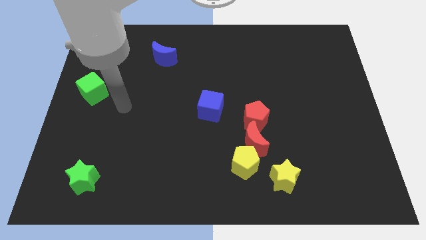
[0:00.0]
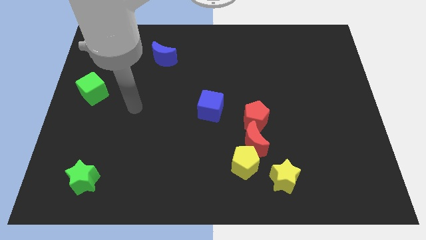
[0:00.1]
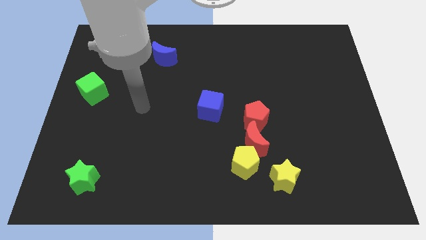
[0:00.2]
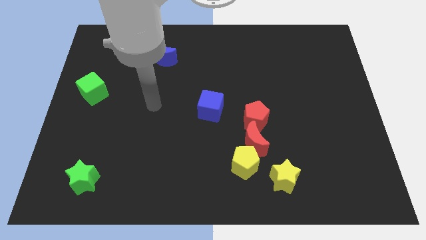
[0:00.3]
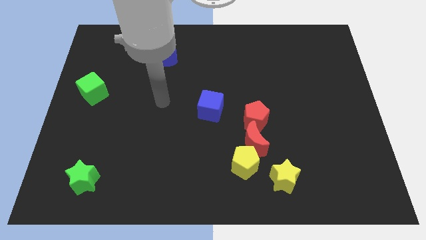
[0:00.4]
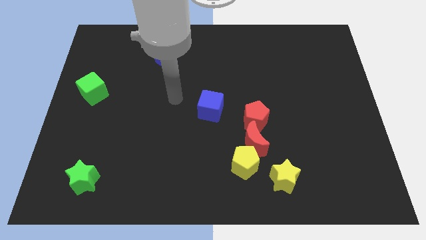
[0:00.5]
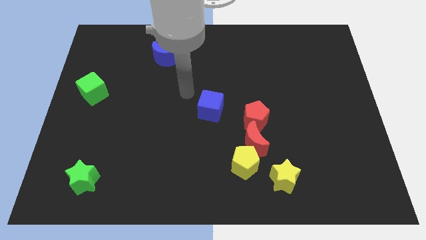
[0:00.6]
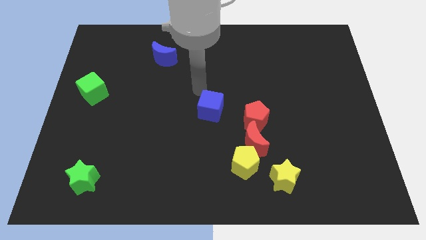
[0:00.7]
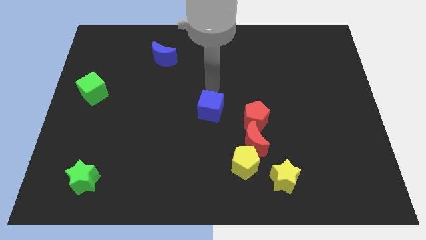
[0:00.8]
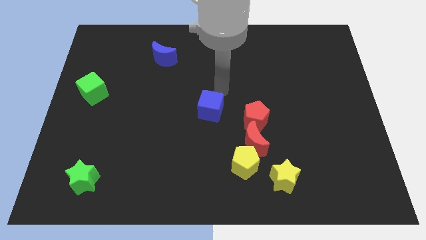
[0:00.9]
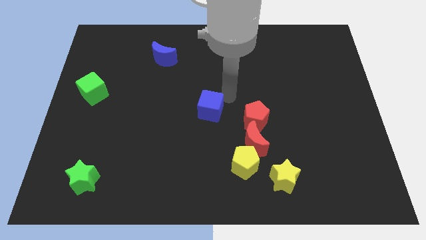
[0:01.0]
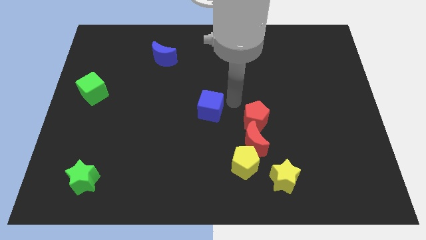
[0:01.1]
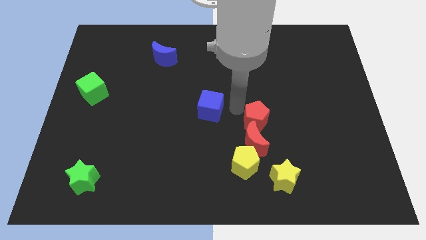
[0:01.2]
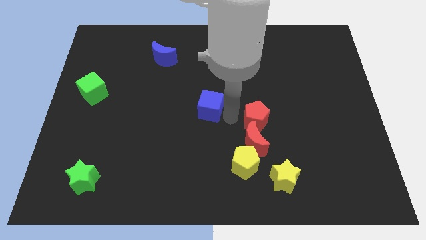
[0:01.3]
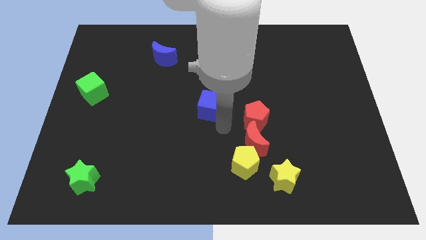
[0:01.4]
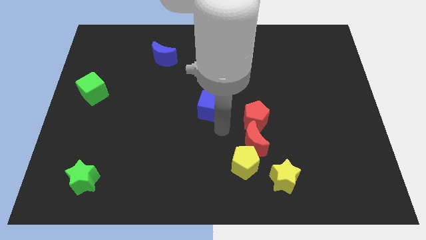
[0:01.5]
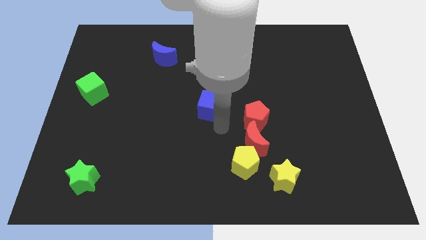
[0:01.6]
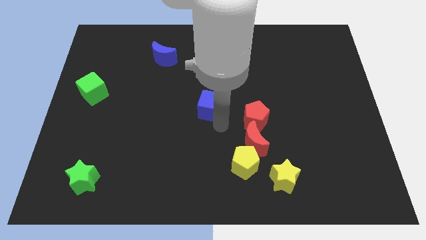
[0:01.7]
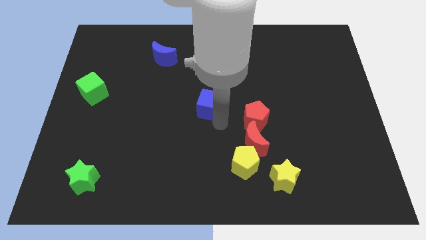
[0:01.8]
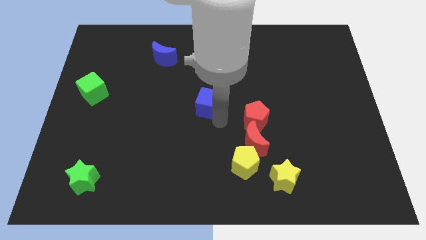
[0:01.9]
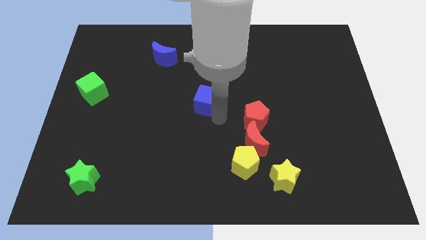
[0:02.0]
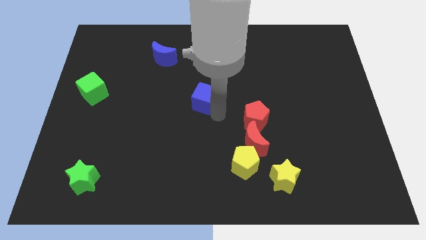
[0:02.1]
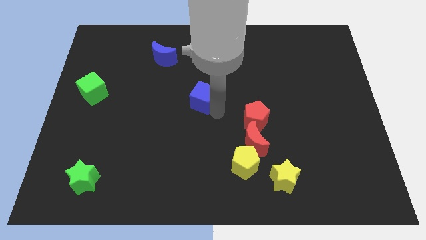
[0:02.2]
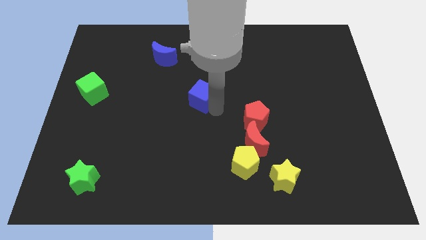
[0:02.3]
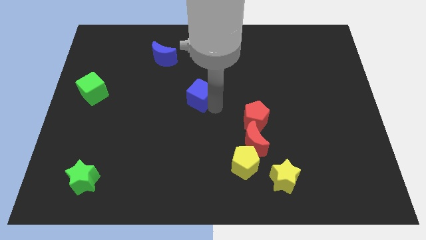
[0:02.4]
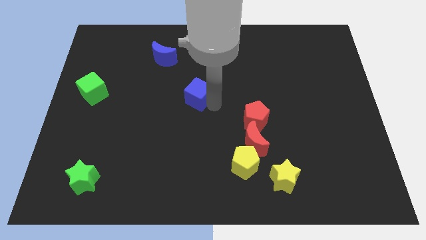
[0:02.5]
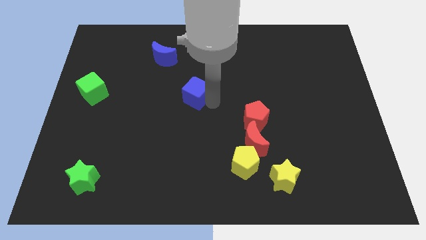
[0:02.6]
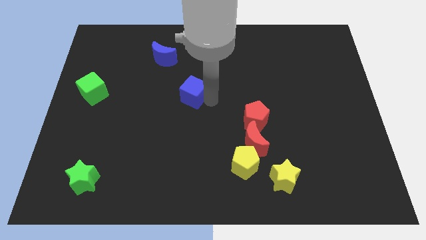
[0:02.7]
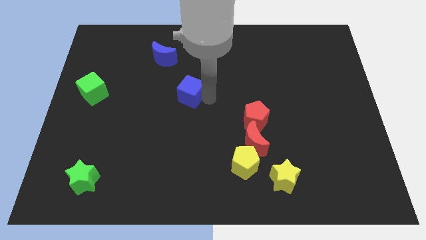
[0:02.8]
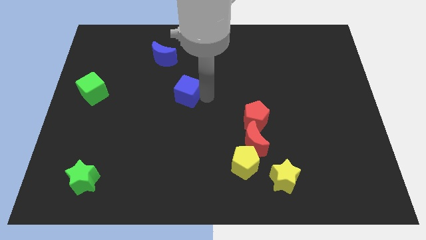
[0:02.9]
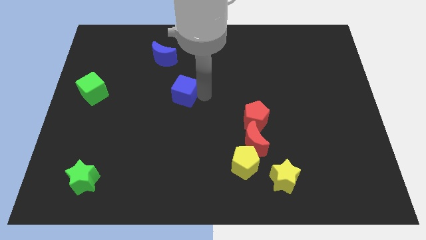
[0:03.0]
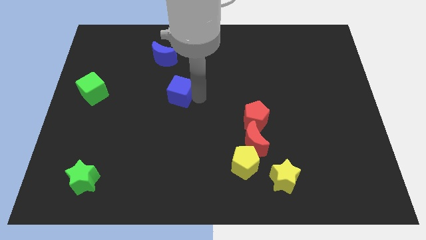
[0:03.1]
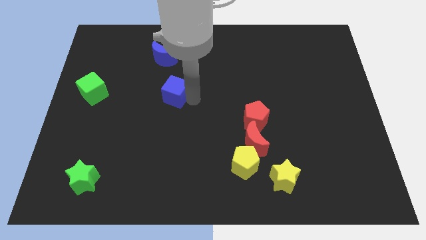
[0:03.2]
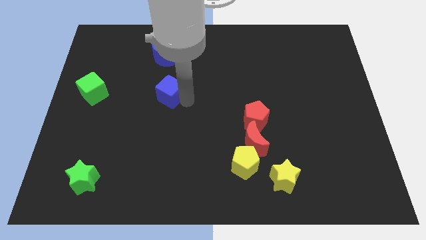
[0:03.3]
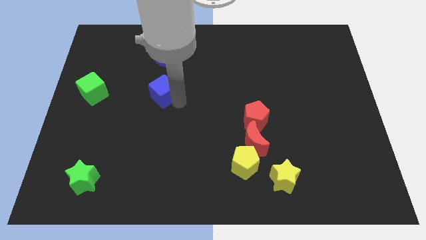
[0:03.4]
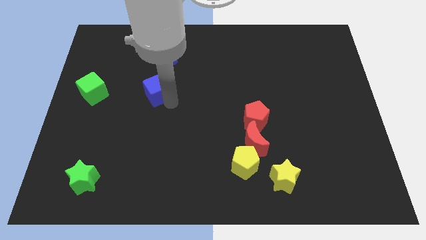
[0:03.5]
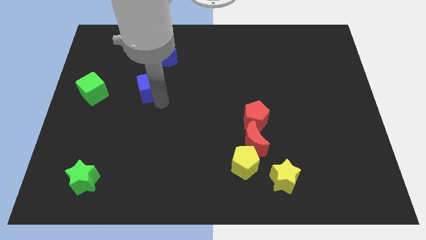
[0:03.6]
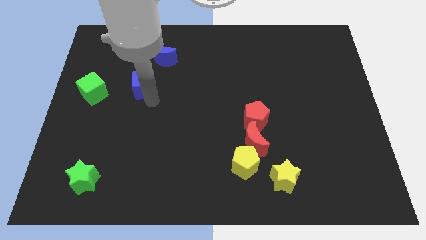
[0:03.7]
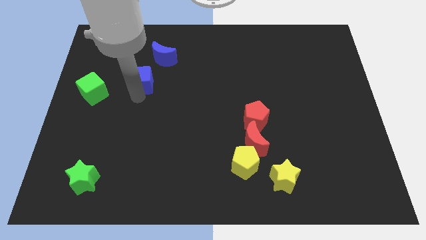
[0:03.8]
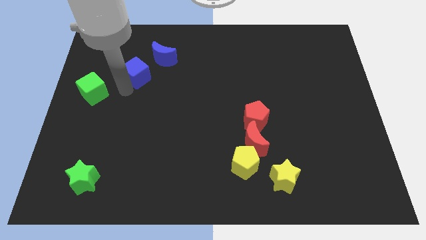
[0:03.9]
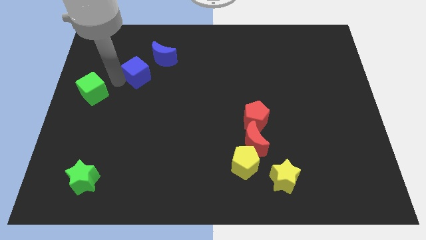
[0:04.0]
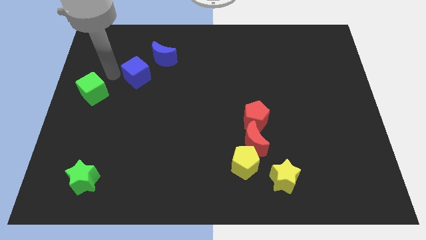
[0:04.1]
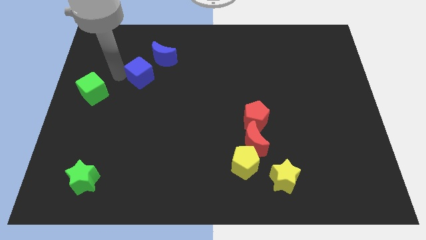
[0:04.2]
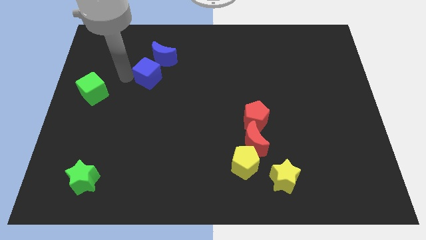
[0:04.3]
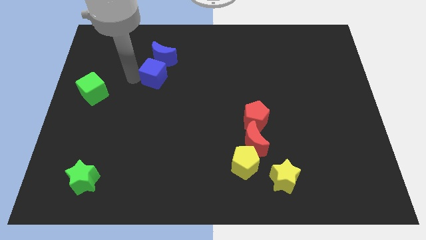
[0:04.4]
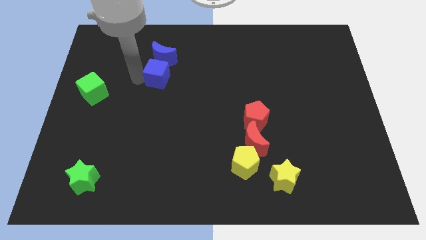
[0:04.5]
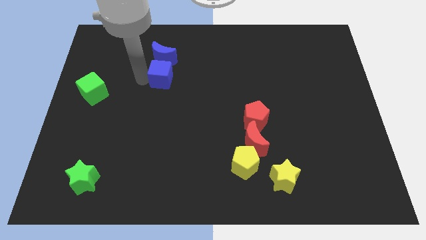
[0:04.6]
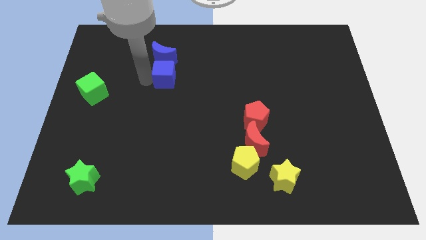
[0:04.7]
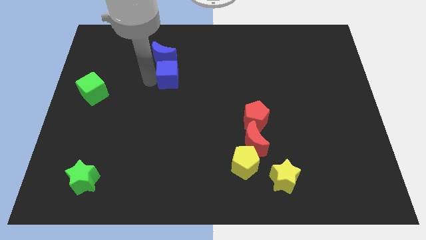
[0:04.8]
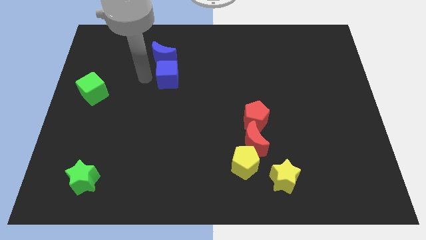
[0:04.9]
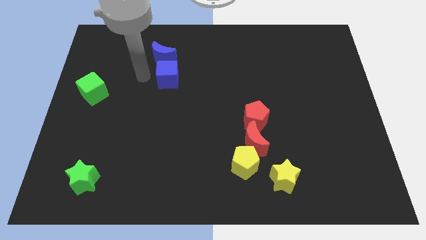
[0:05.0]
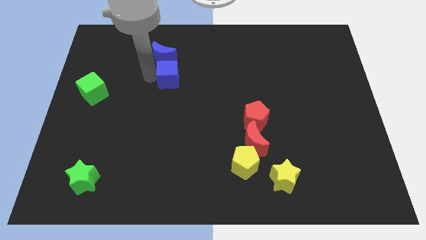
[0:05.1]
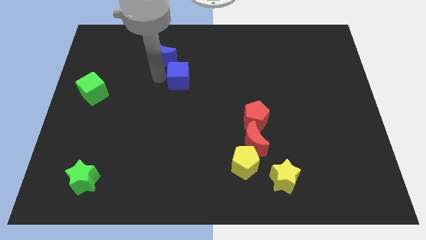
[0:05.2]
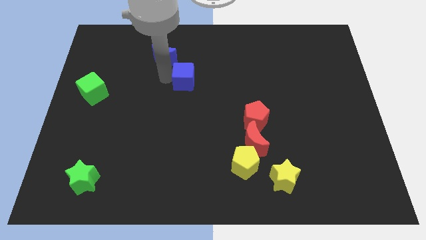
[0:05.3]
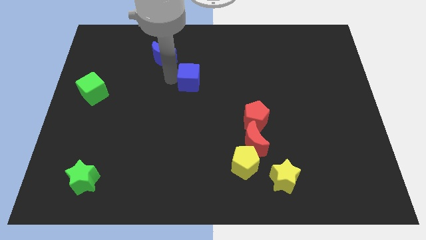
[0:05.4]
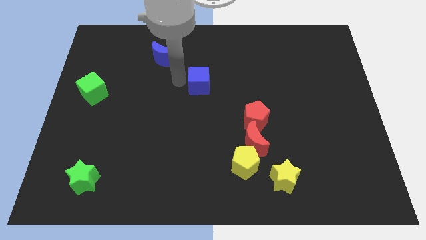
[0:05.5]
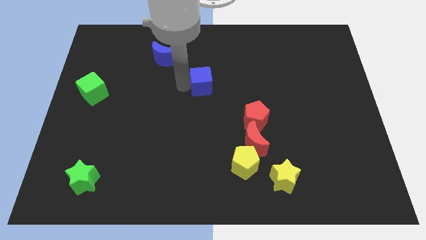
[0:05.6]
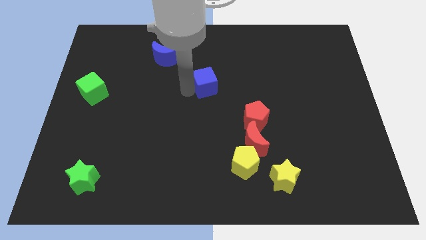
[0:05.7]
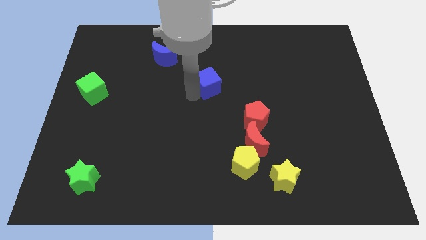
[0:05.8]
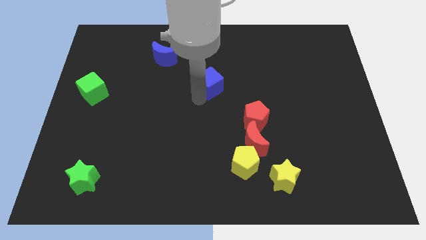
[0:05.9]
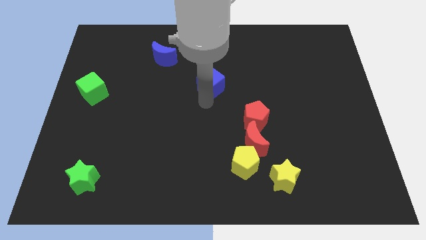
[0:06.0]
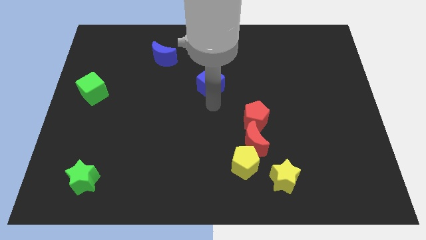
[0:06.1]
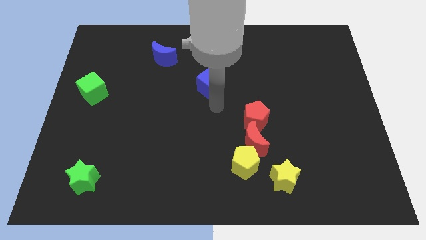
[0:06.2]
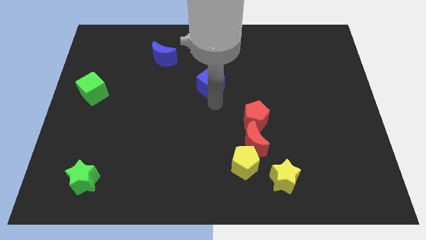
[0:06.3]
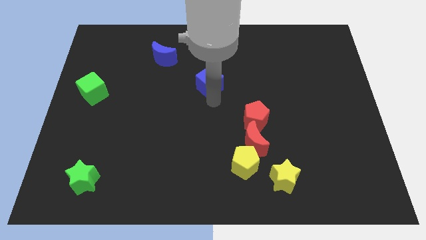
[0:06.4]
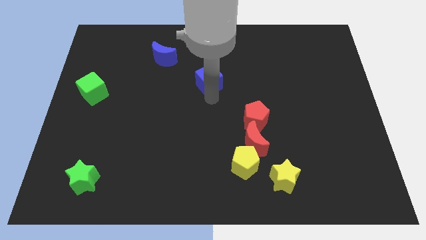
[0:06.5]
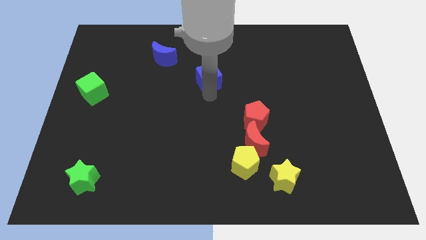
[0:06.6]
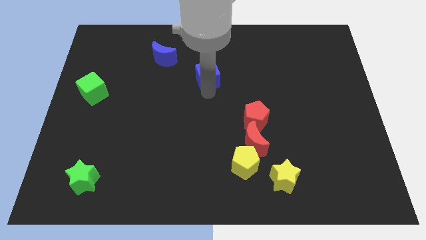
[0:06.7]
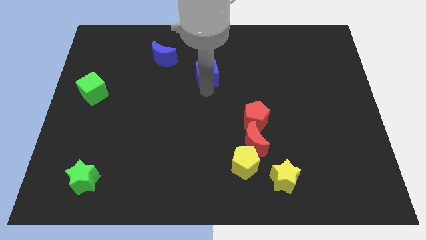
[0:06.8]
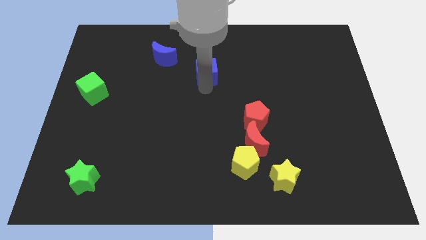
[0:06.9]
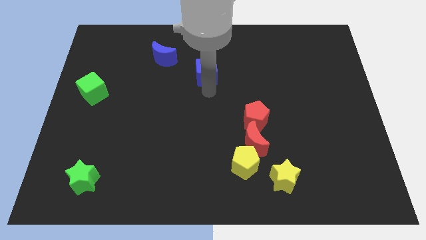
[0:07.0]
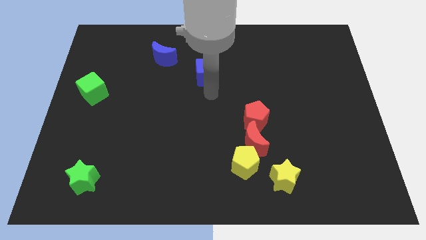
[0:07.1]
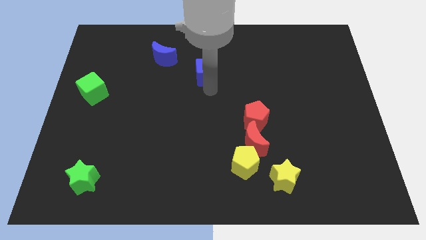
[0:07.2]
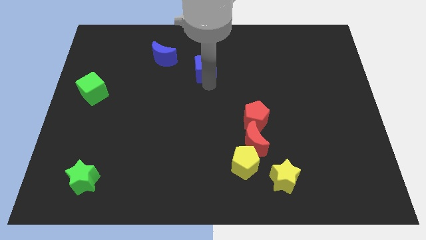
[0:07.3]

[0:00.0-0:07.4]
slide the blue cube right of the blue moon
